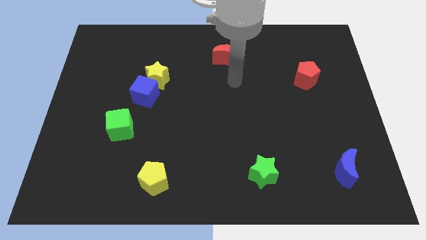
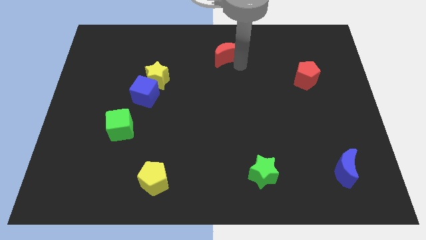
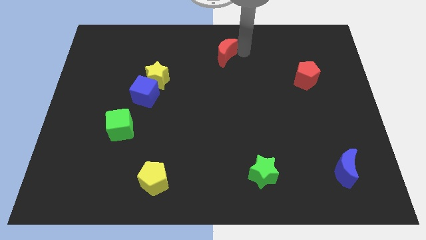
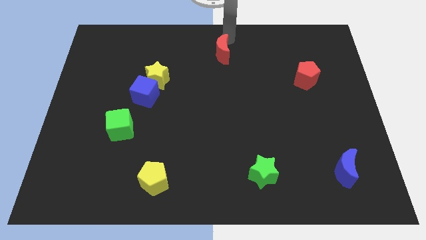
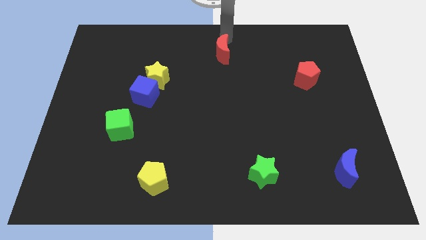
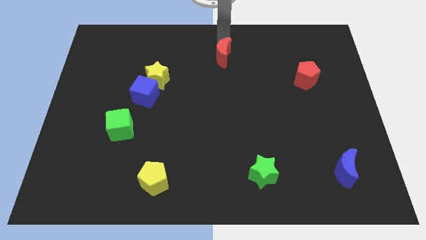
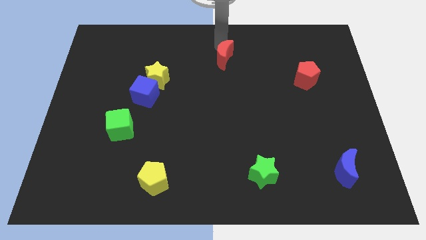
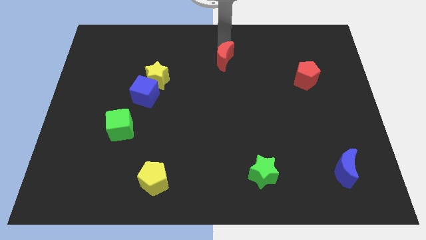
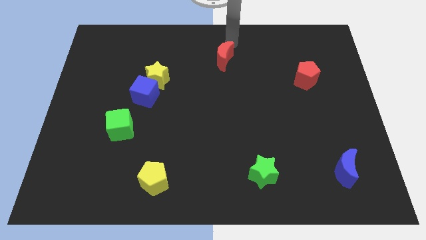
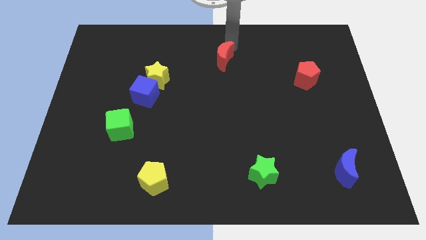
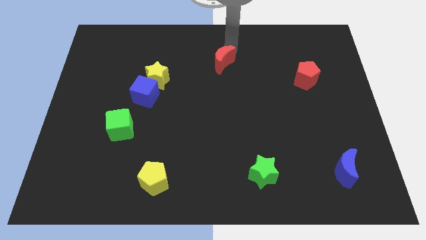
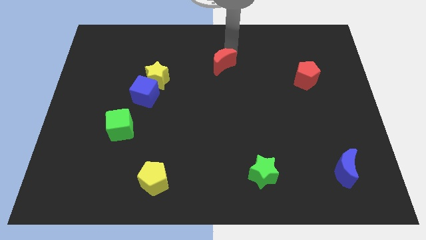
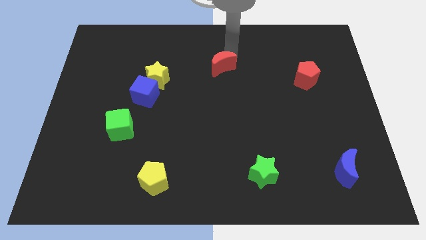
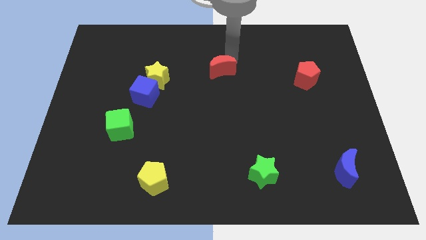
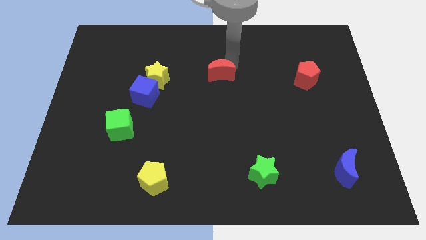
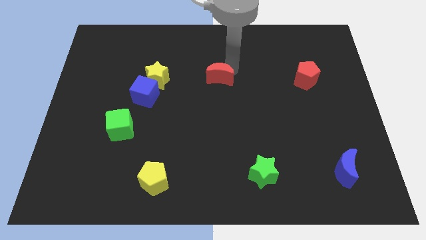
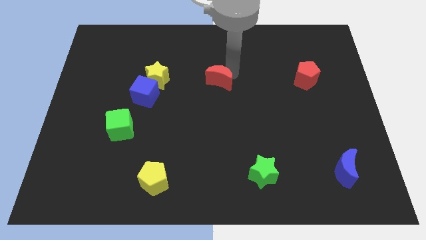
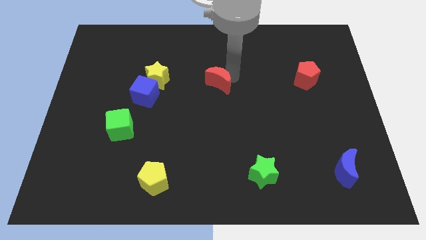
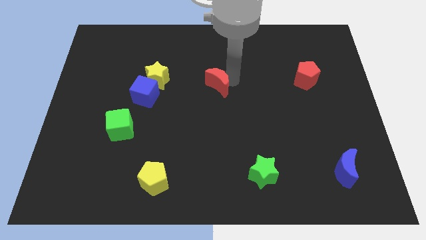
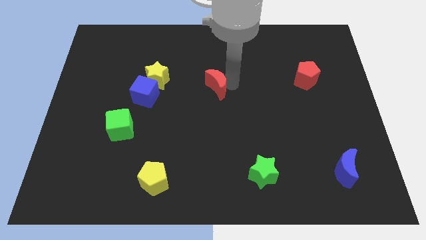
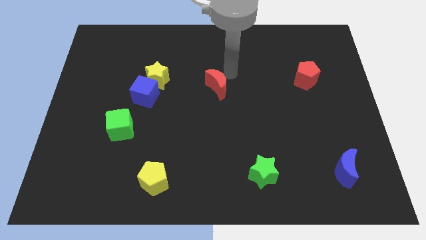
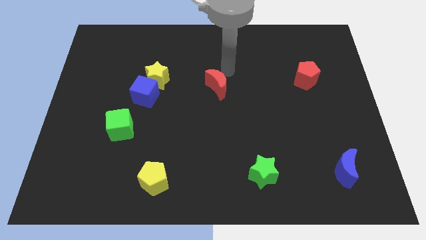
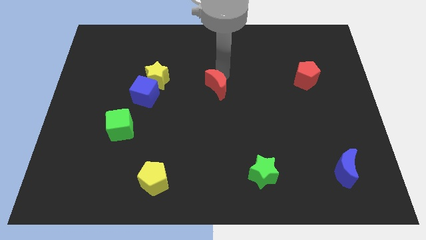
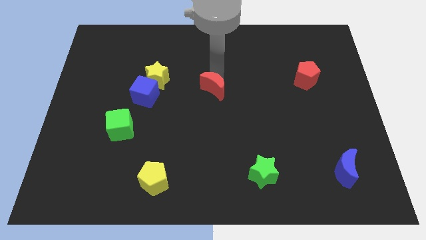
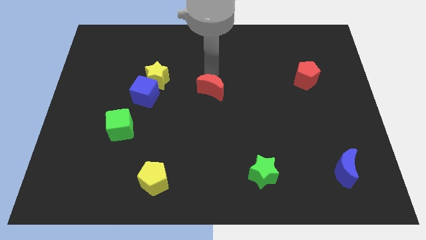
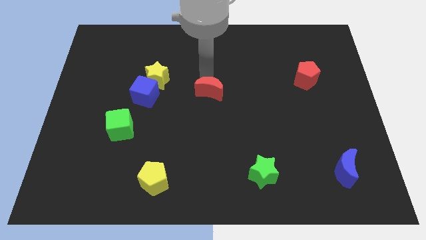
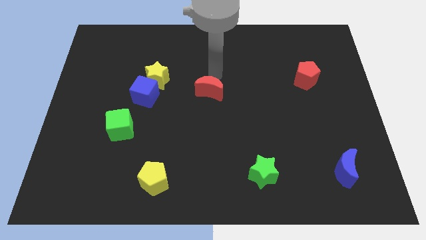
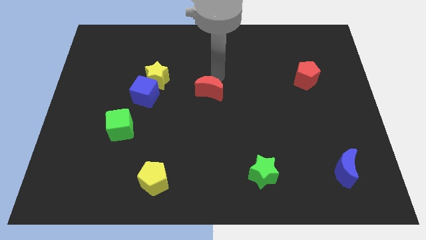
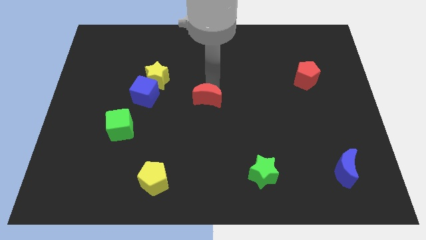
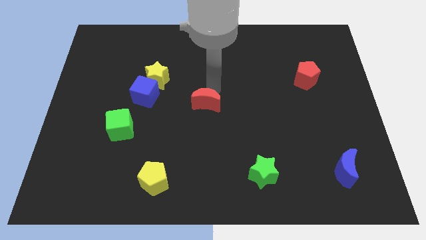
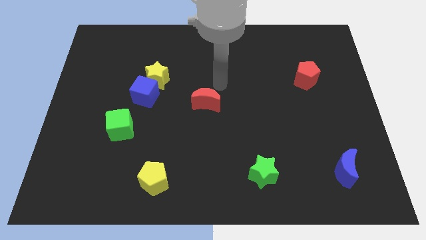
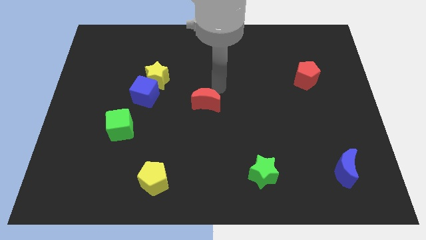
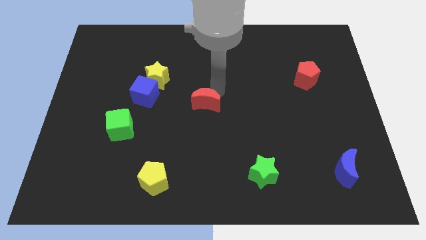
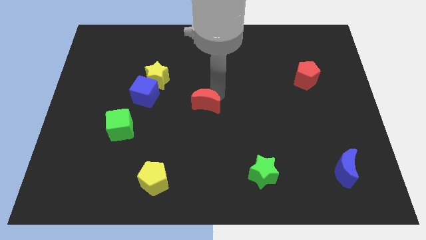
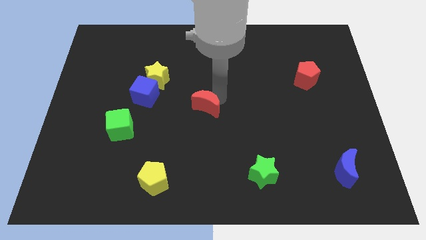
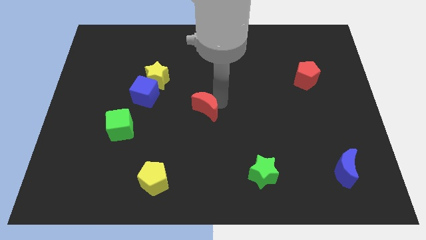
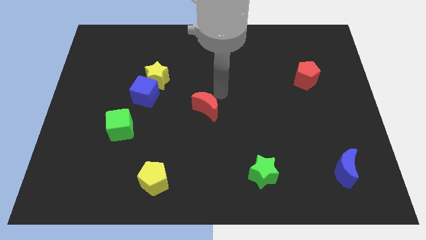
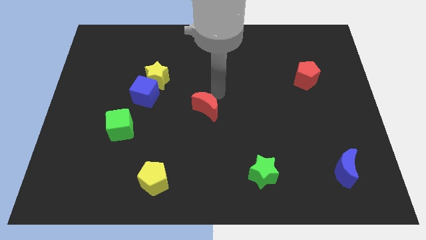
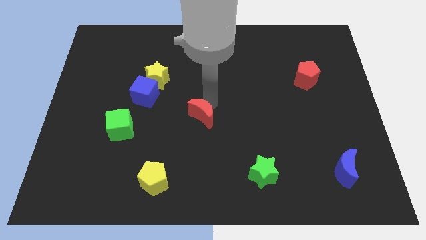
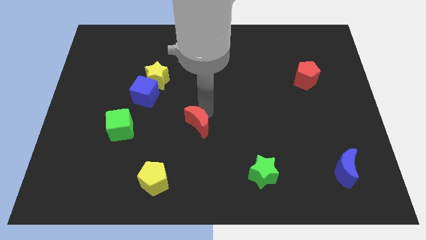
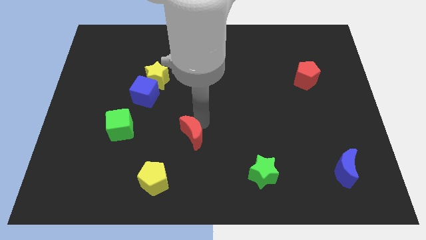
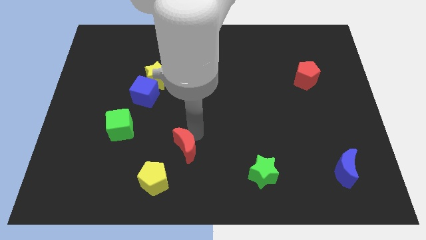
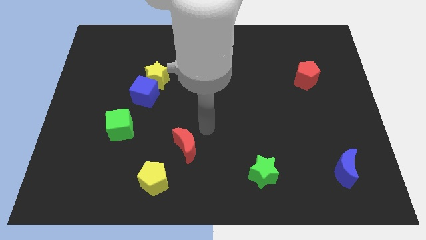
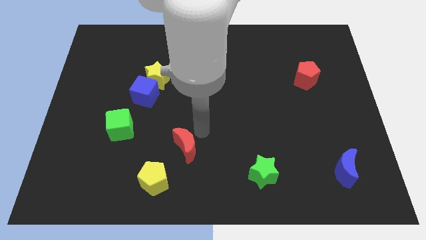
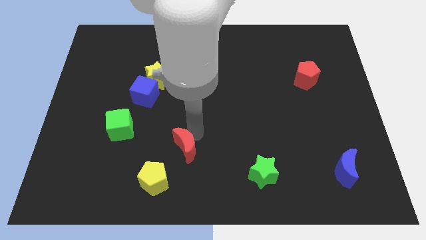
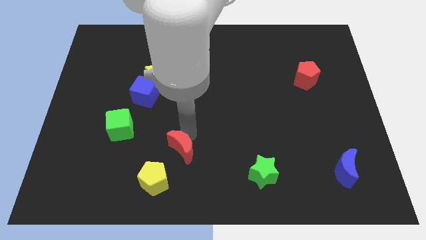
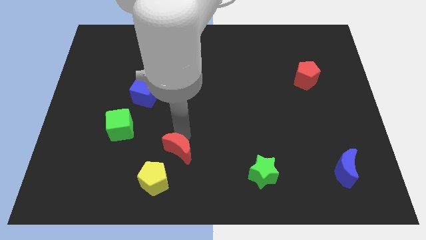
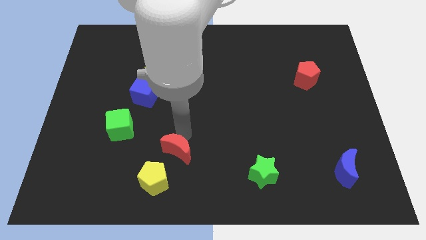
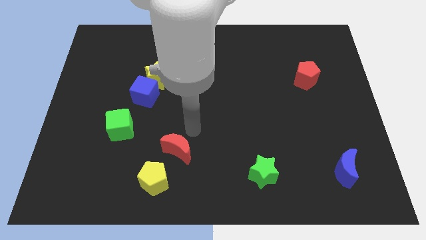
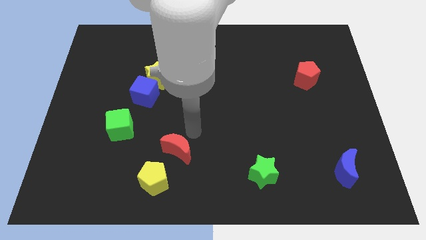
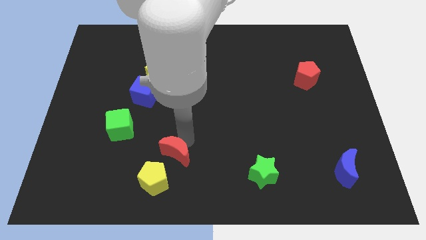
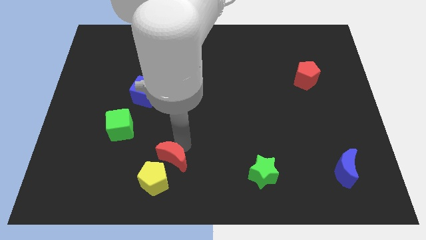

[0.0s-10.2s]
slide the red moon close to the yellow pentagon

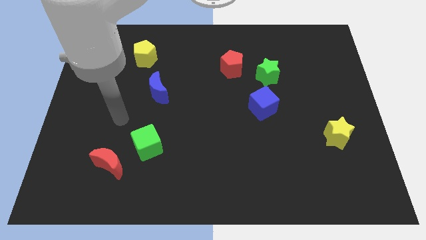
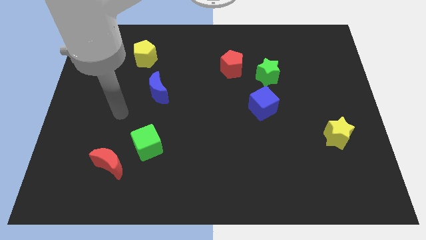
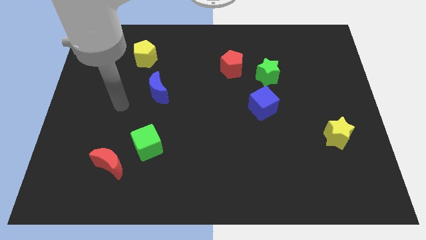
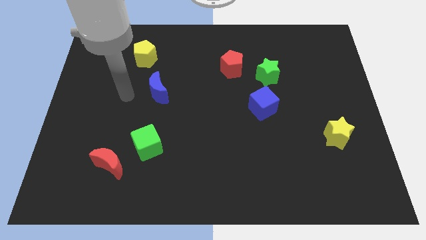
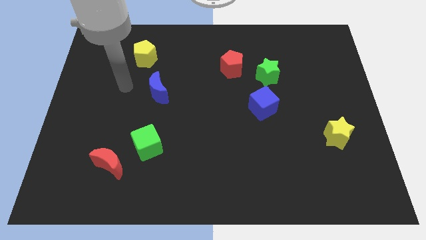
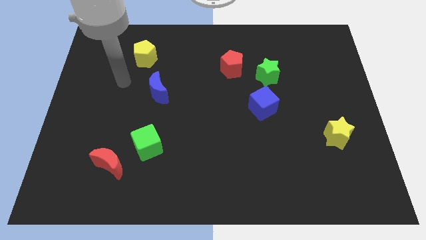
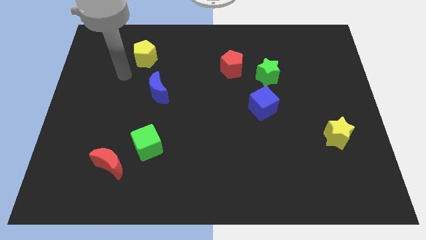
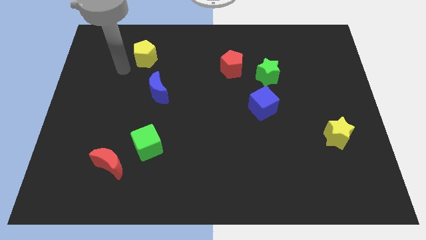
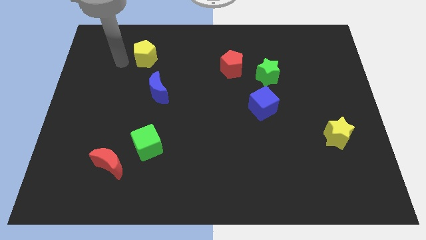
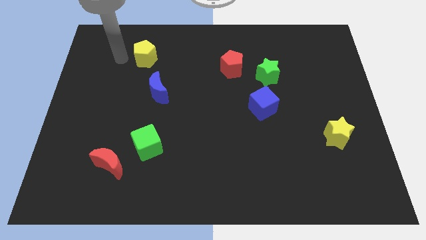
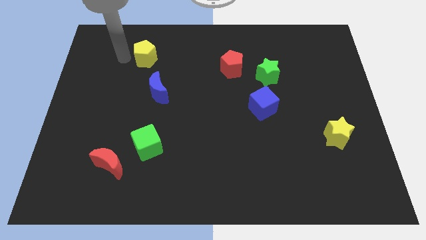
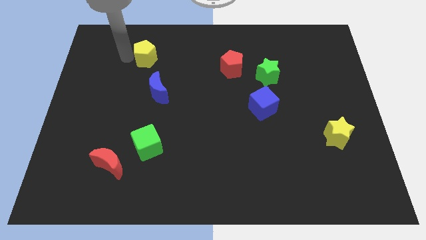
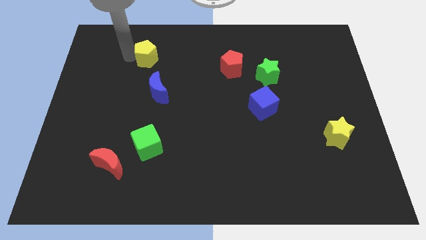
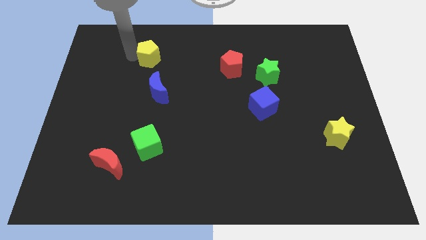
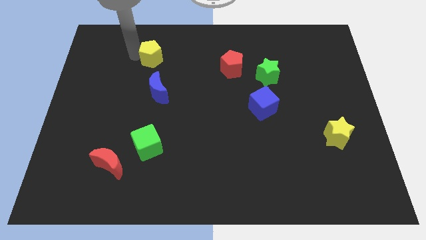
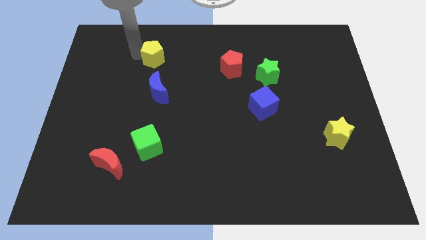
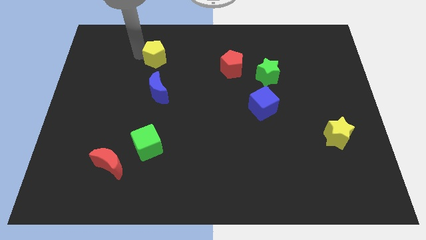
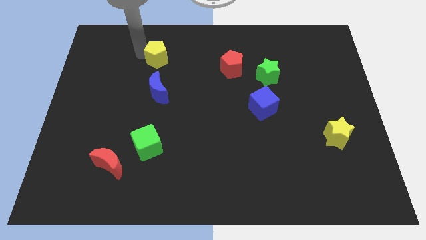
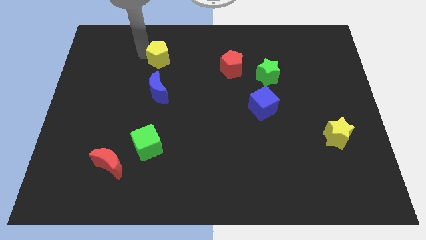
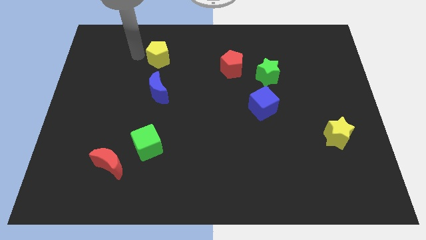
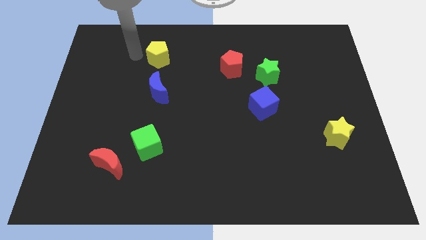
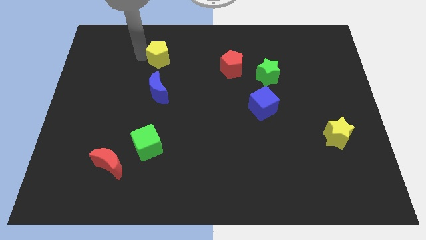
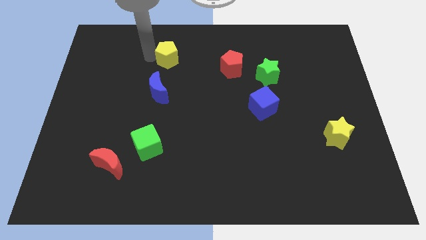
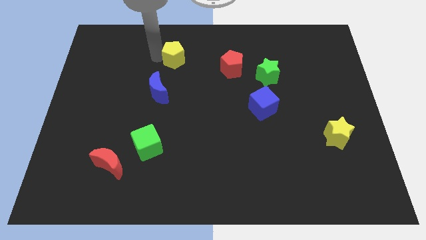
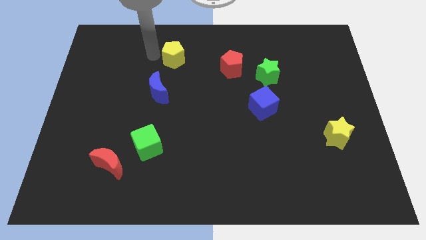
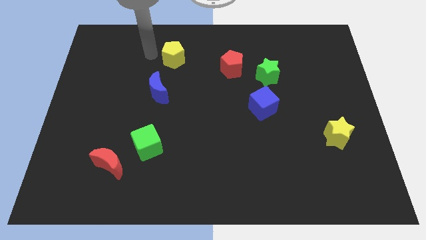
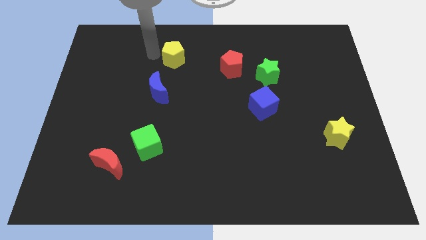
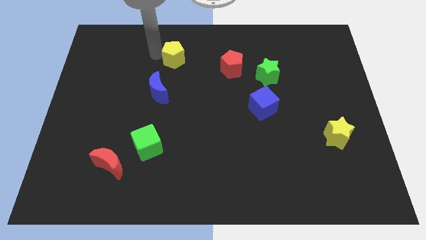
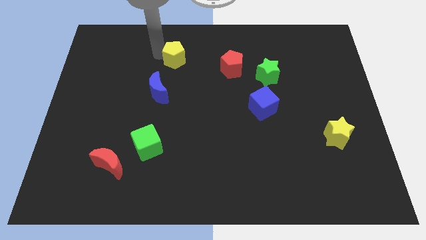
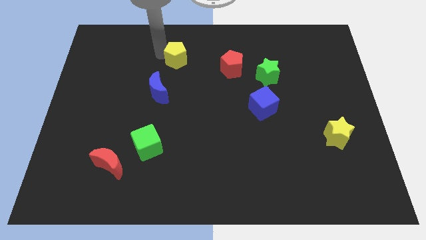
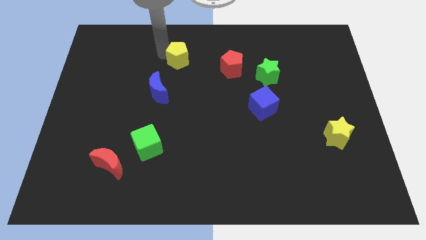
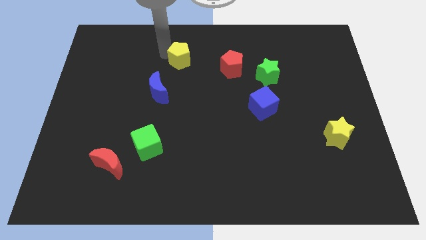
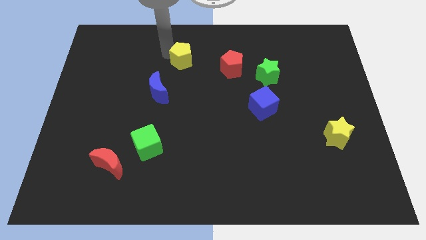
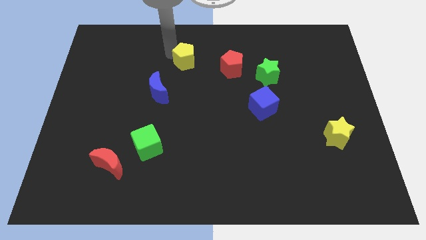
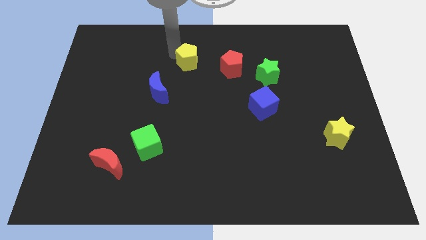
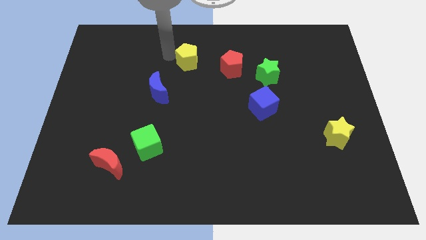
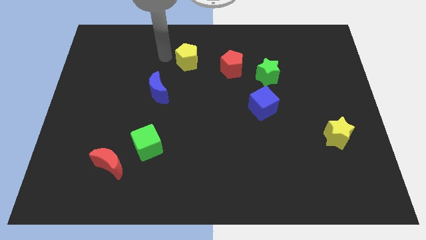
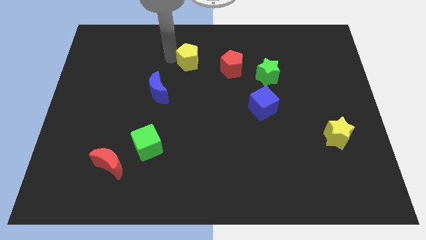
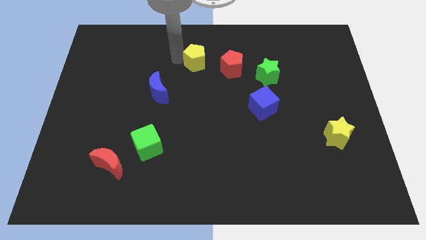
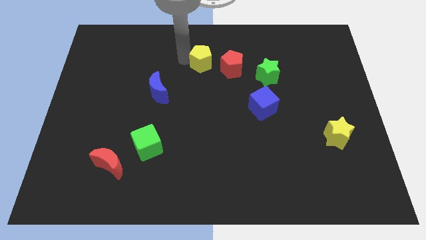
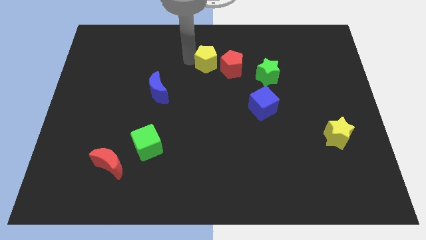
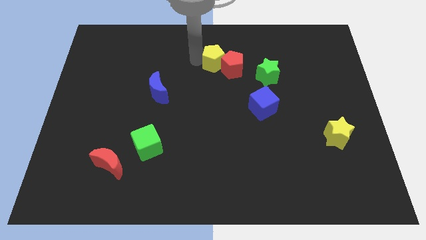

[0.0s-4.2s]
move the yellow pentagon close to the red pentagon
